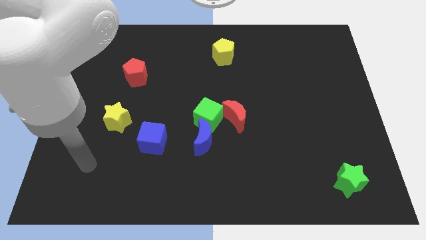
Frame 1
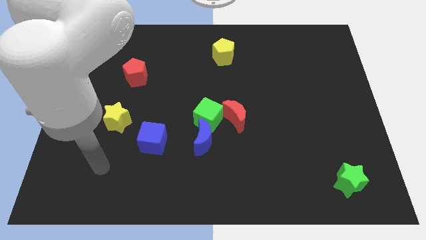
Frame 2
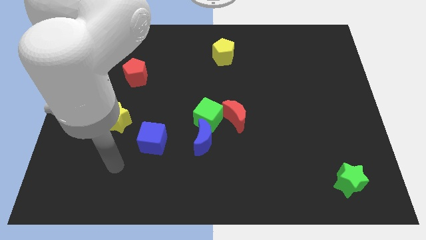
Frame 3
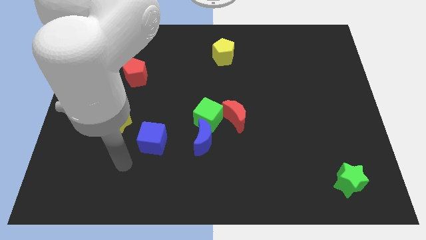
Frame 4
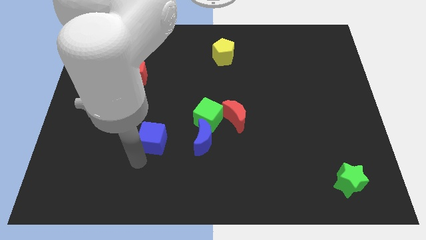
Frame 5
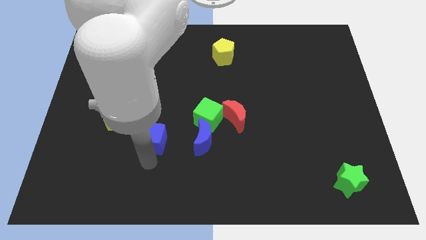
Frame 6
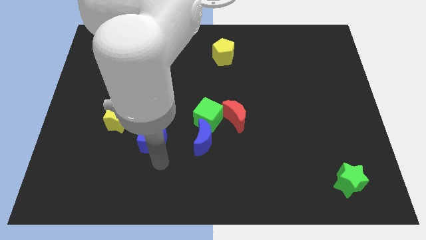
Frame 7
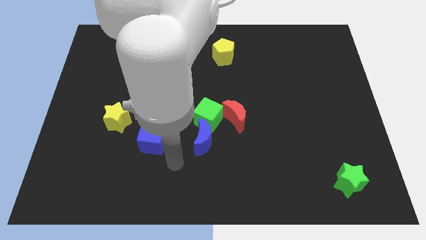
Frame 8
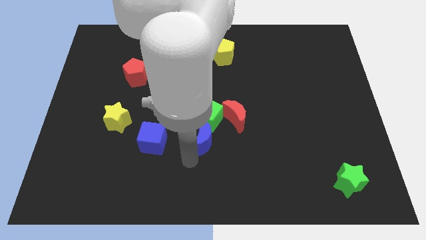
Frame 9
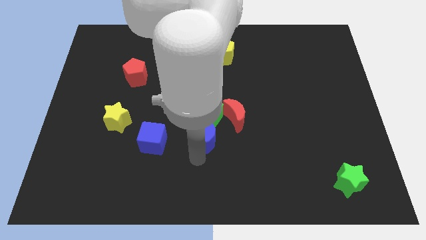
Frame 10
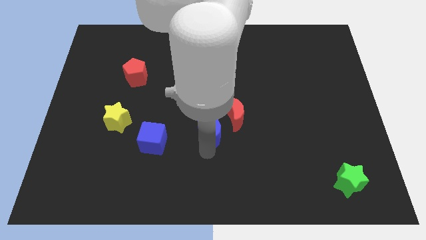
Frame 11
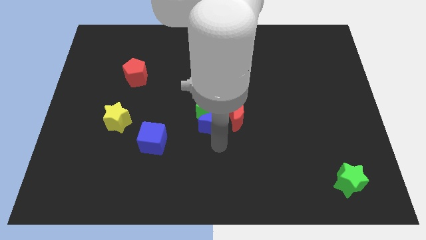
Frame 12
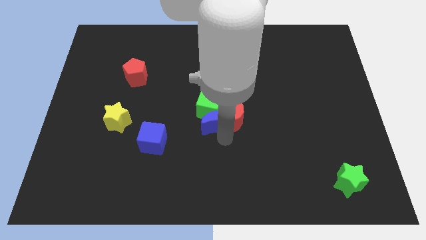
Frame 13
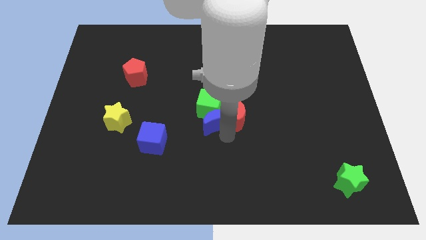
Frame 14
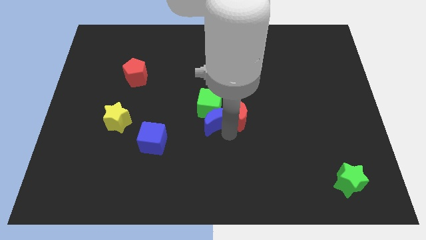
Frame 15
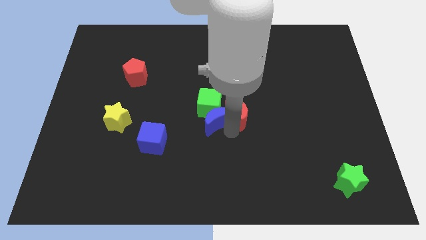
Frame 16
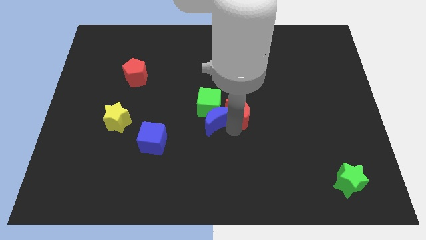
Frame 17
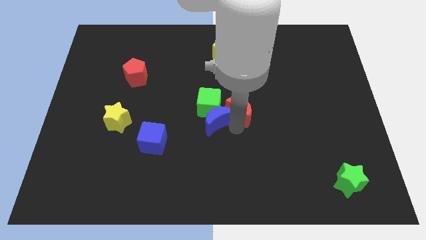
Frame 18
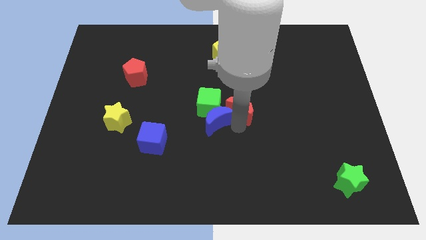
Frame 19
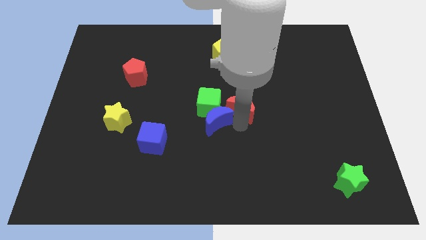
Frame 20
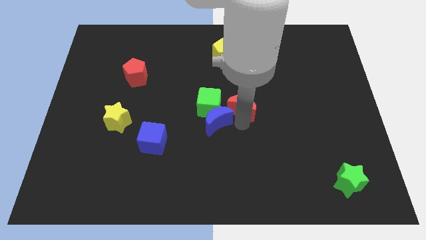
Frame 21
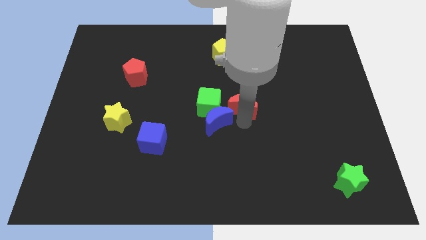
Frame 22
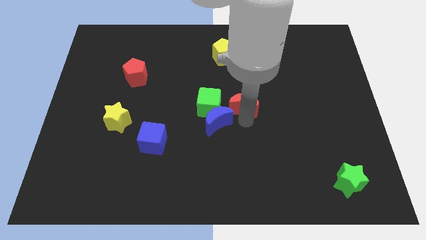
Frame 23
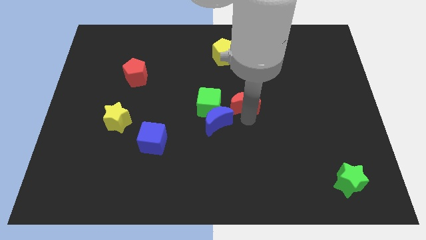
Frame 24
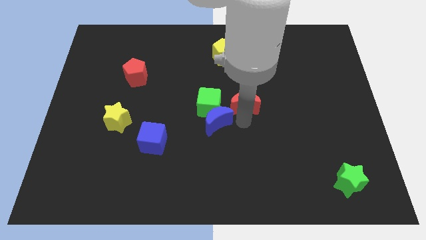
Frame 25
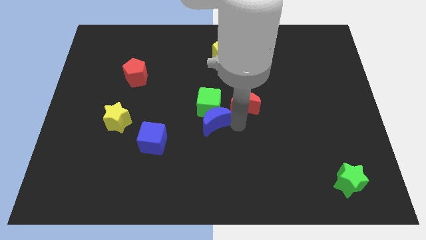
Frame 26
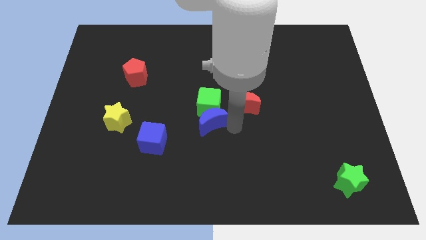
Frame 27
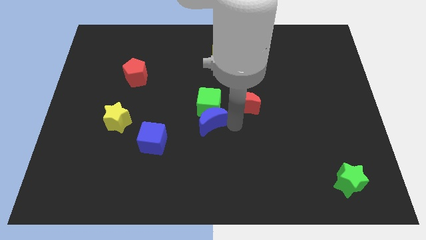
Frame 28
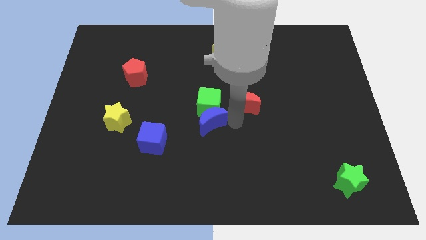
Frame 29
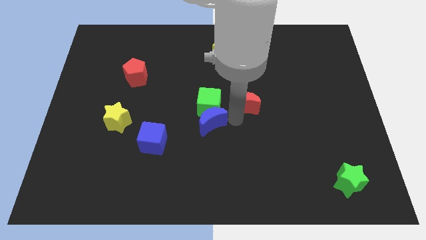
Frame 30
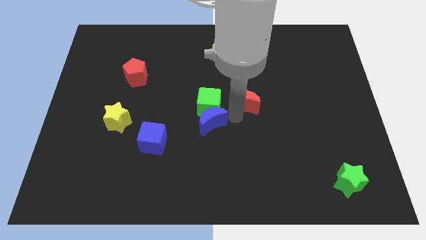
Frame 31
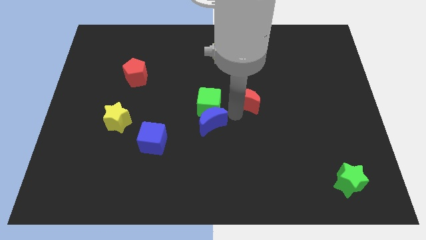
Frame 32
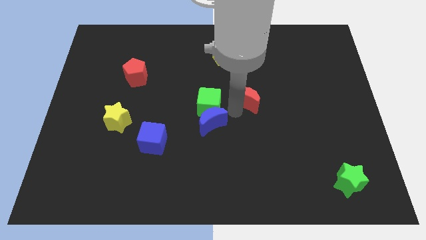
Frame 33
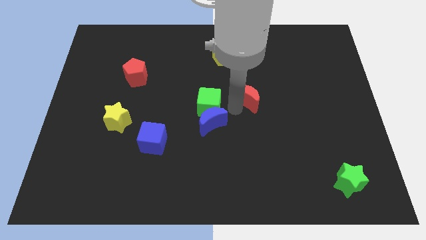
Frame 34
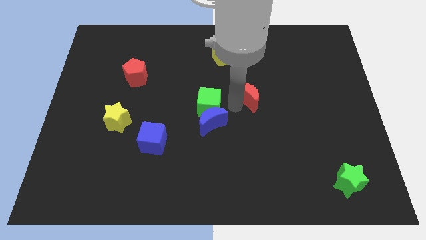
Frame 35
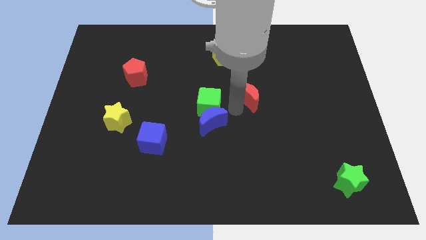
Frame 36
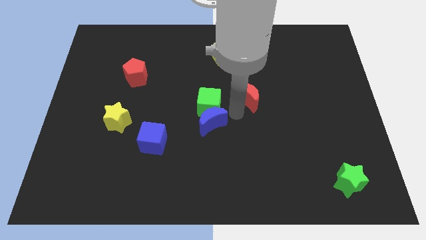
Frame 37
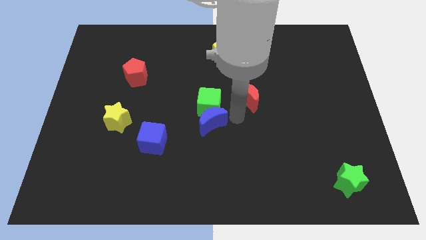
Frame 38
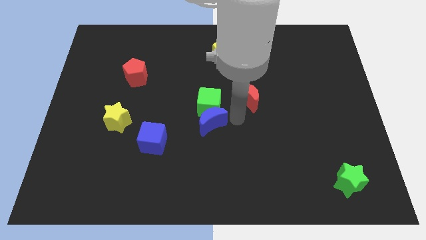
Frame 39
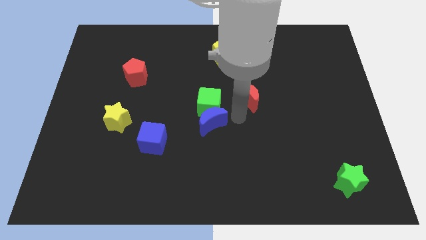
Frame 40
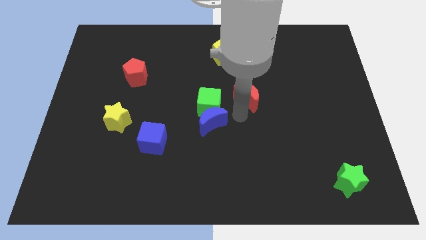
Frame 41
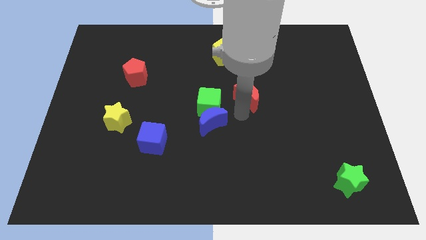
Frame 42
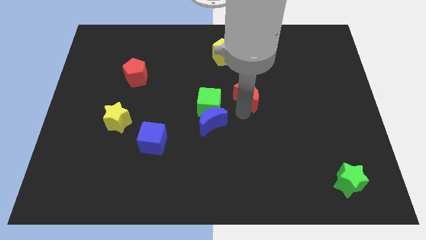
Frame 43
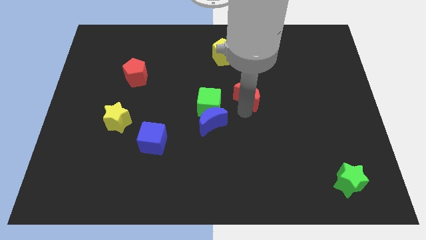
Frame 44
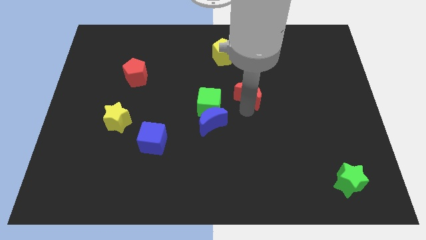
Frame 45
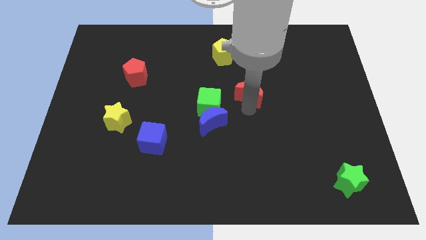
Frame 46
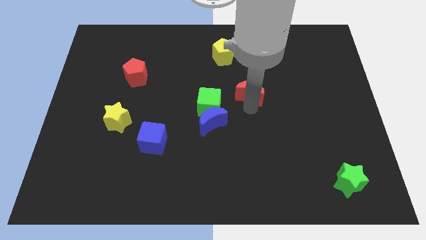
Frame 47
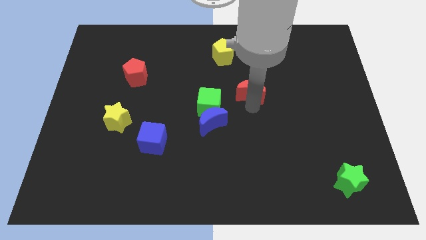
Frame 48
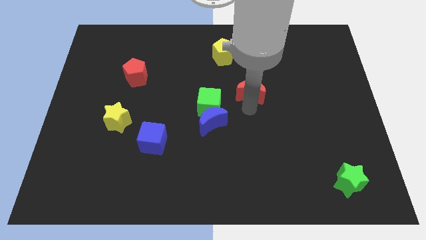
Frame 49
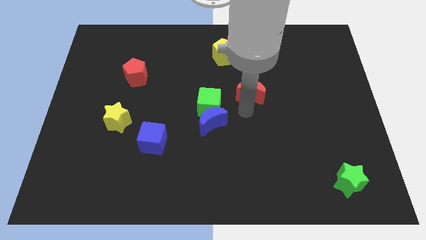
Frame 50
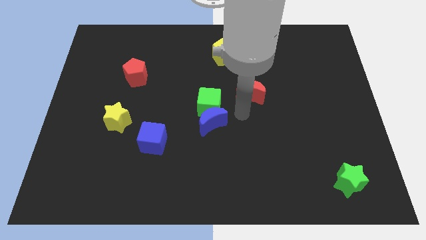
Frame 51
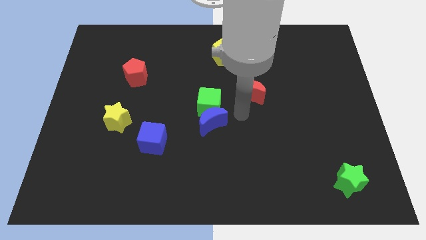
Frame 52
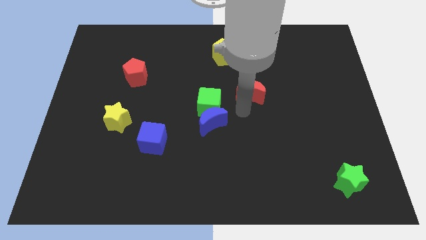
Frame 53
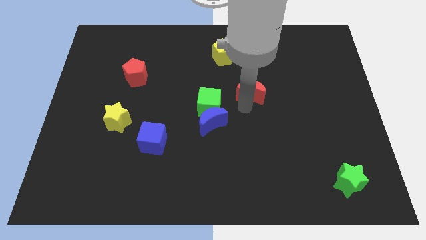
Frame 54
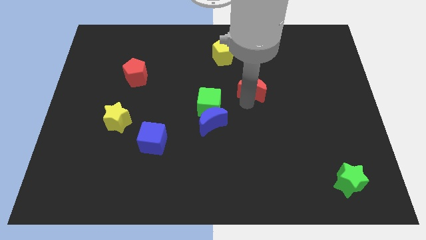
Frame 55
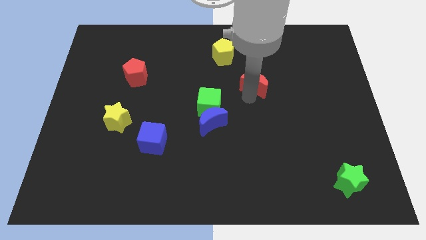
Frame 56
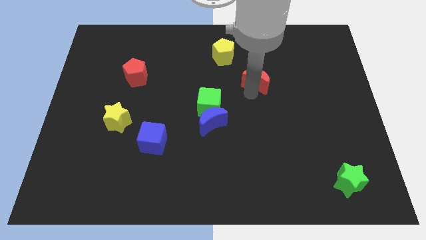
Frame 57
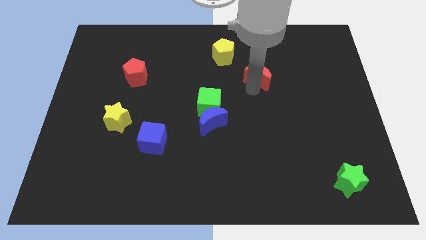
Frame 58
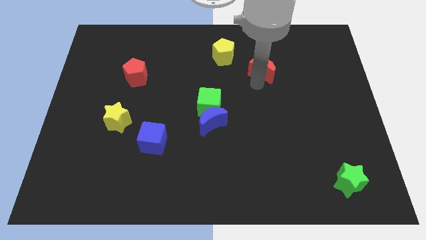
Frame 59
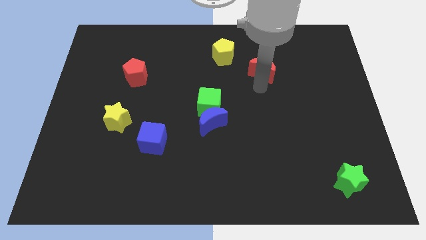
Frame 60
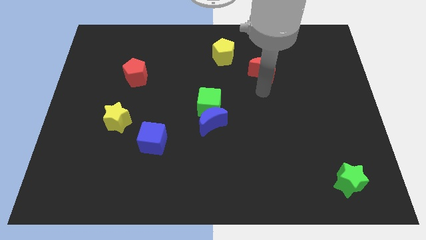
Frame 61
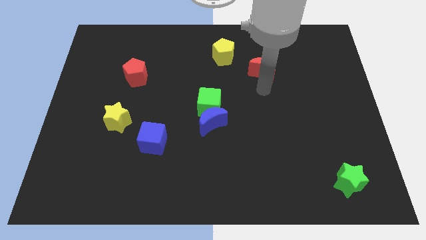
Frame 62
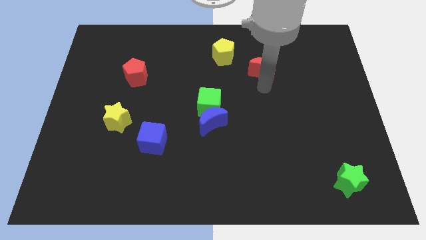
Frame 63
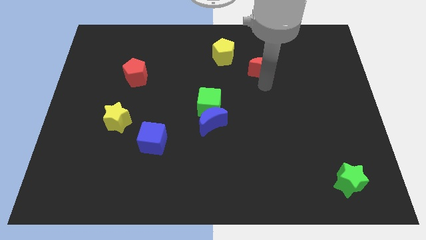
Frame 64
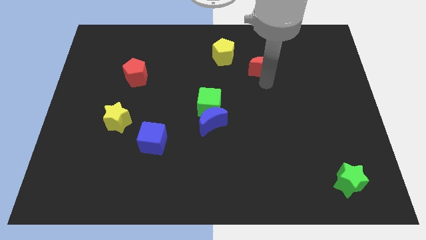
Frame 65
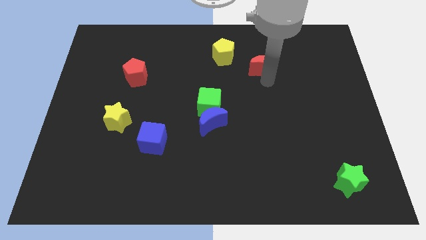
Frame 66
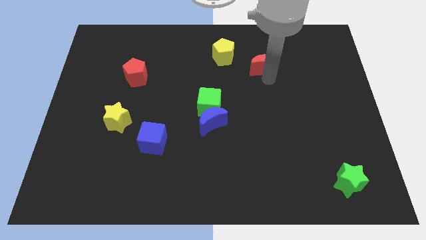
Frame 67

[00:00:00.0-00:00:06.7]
move the red moon just right of the yellow pentagon

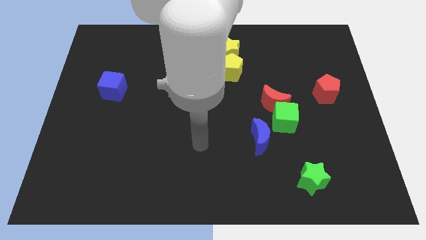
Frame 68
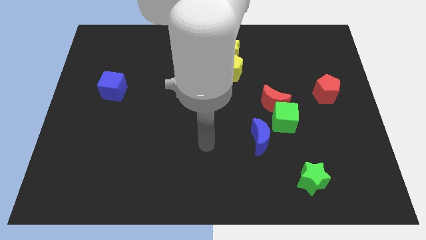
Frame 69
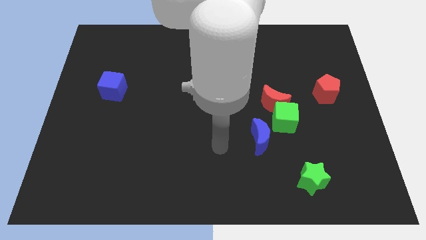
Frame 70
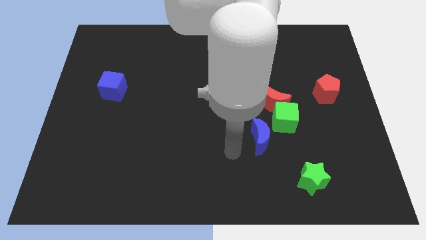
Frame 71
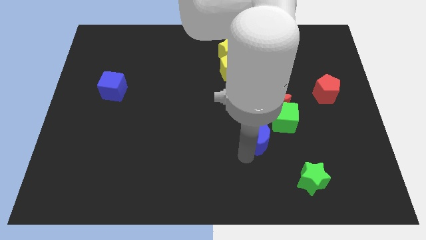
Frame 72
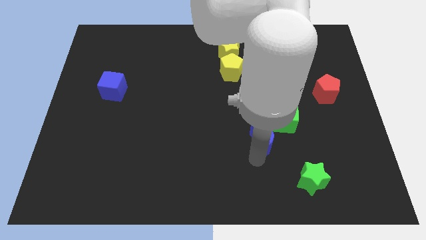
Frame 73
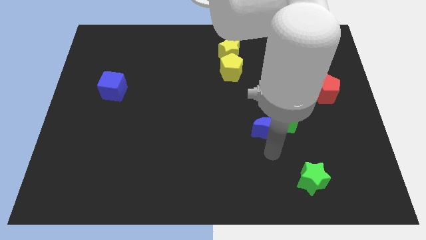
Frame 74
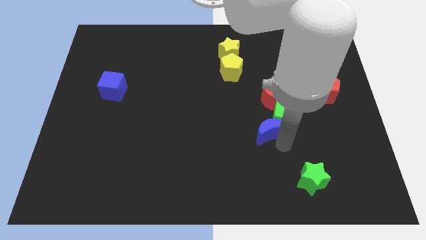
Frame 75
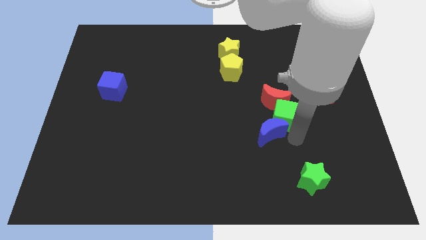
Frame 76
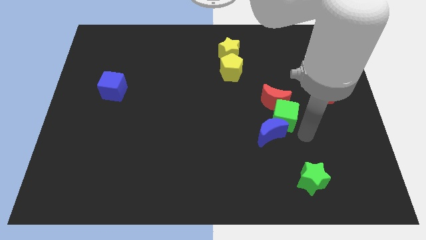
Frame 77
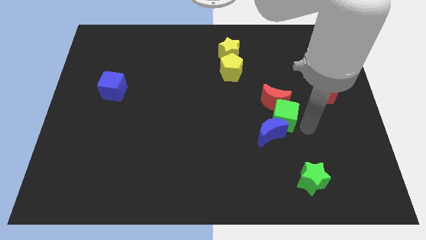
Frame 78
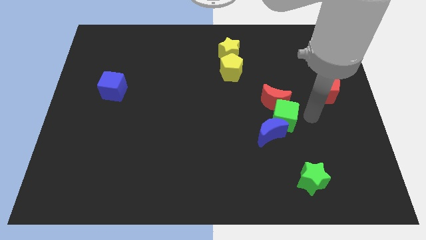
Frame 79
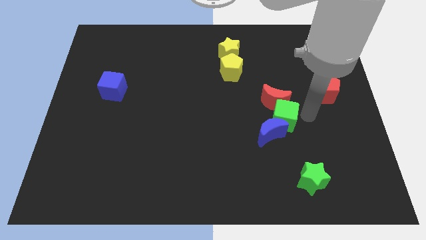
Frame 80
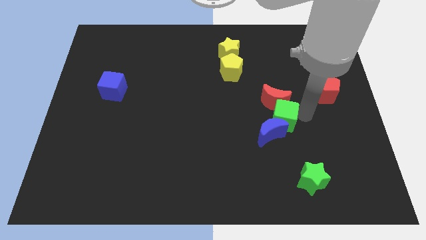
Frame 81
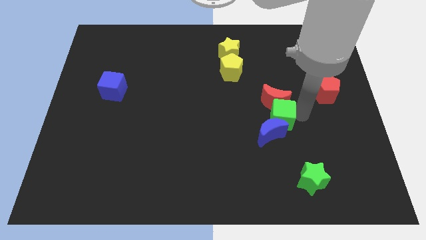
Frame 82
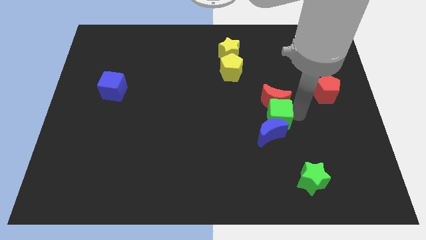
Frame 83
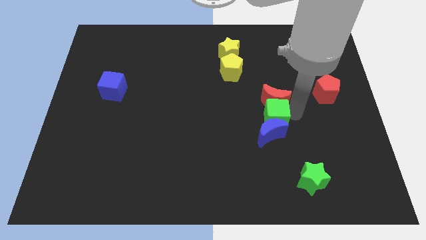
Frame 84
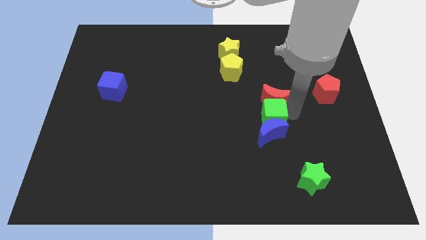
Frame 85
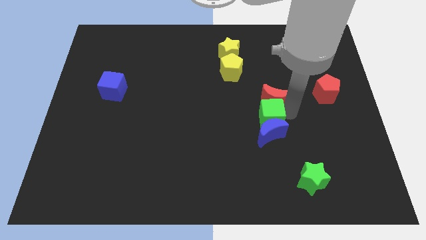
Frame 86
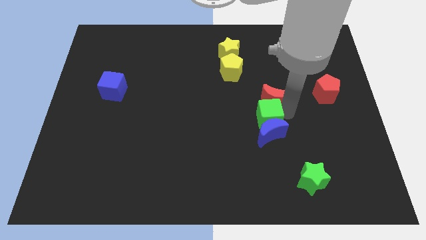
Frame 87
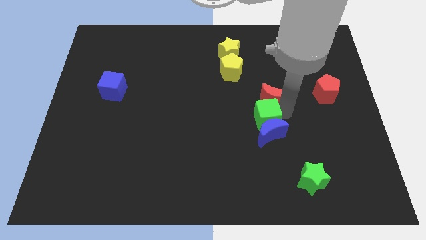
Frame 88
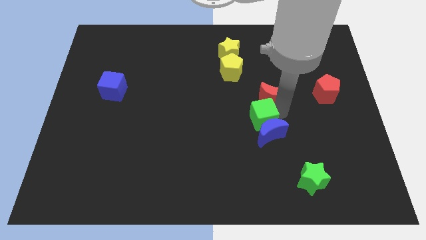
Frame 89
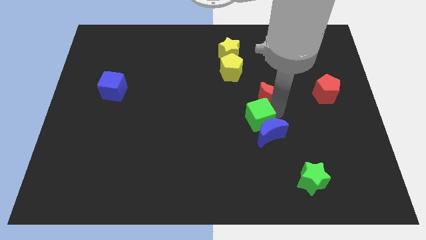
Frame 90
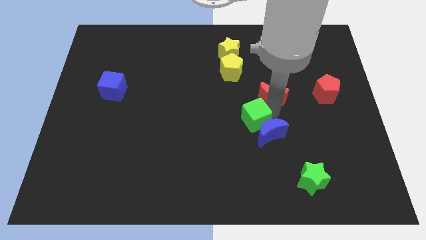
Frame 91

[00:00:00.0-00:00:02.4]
slide the green cube left of the blue moon
